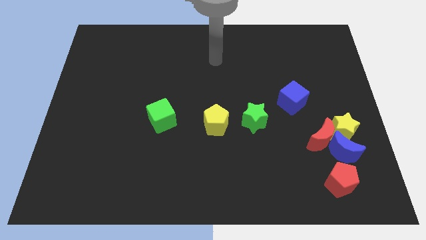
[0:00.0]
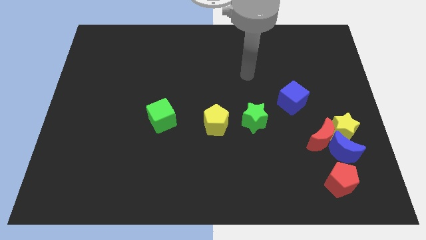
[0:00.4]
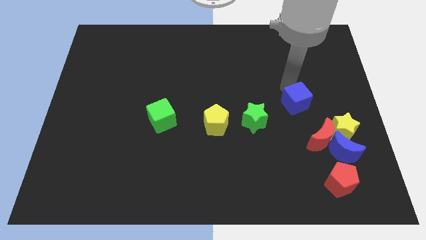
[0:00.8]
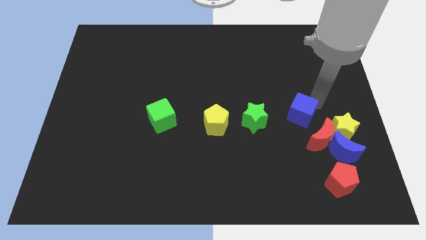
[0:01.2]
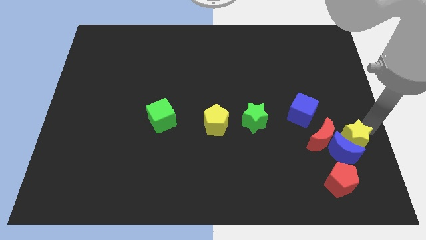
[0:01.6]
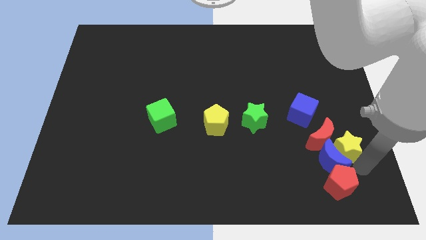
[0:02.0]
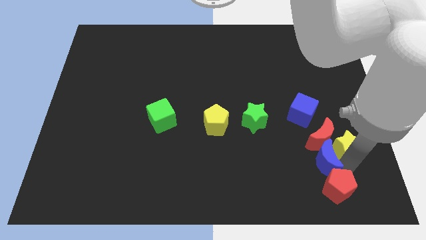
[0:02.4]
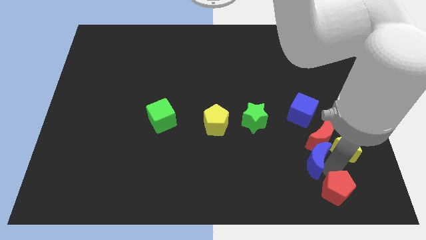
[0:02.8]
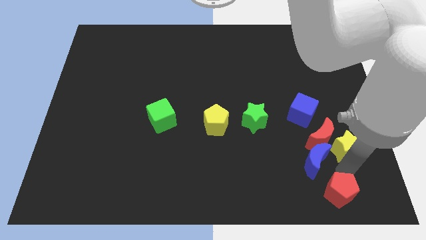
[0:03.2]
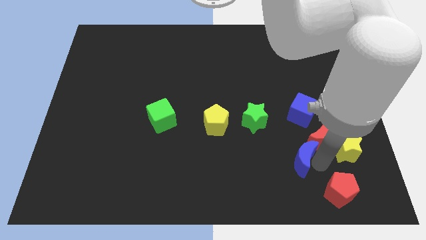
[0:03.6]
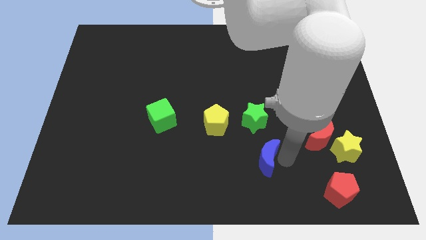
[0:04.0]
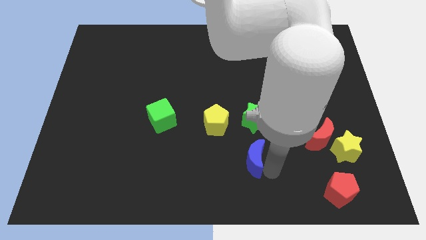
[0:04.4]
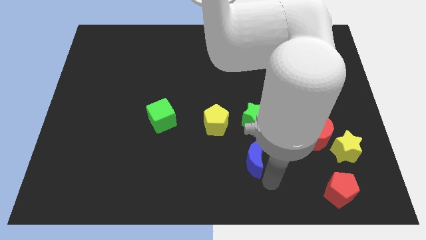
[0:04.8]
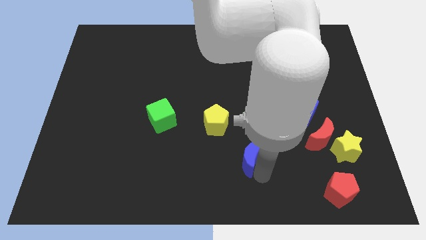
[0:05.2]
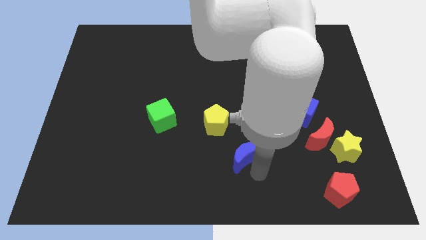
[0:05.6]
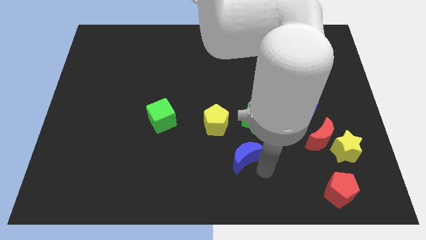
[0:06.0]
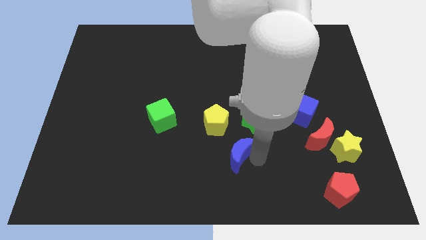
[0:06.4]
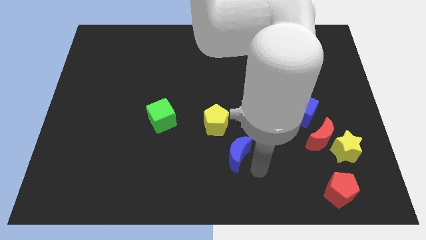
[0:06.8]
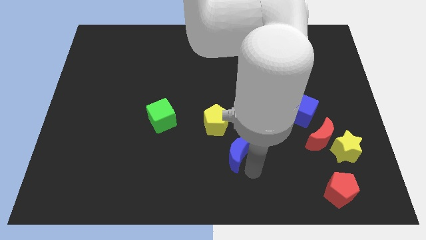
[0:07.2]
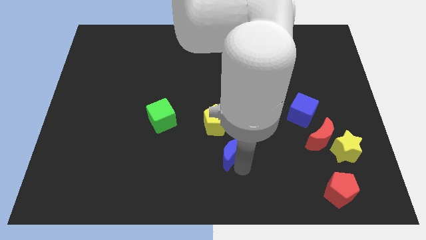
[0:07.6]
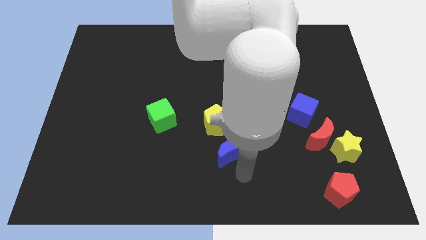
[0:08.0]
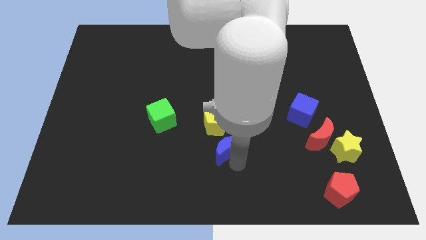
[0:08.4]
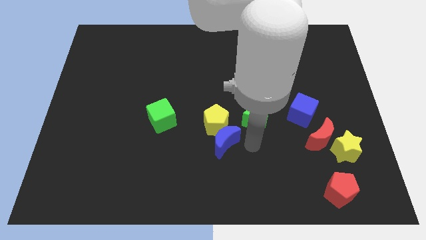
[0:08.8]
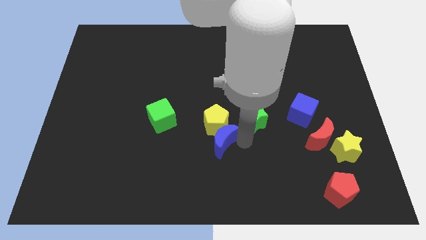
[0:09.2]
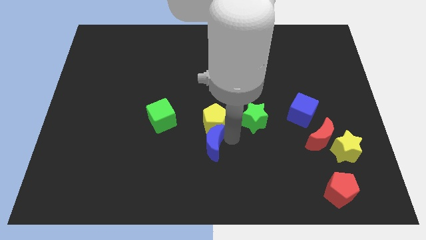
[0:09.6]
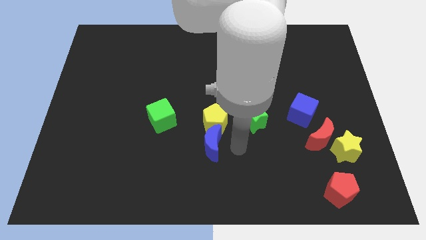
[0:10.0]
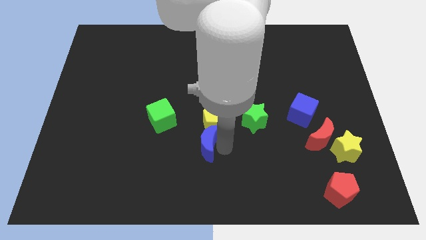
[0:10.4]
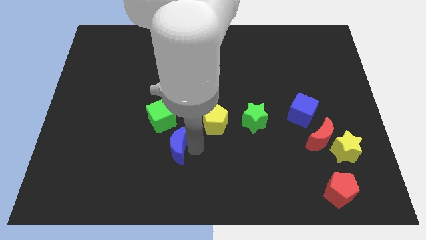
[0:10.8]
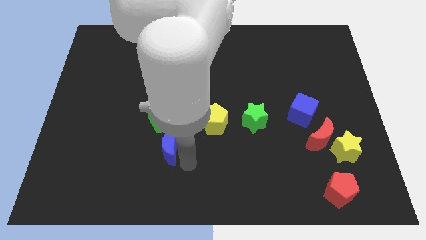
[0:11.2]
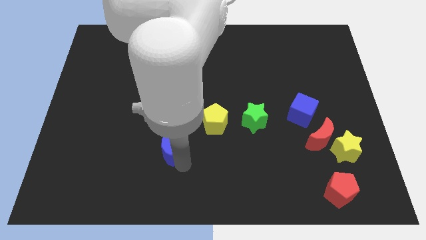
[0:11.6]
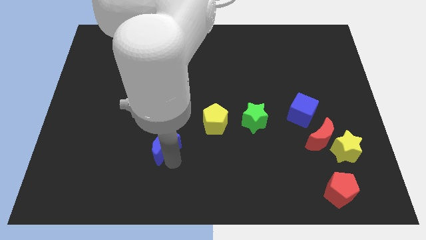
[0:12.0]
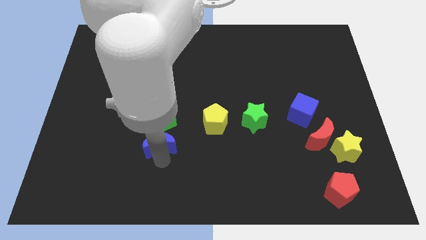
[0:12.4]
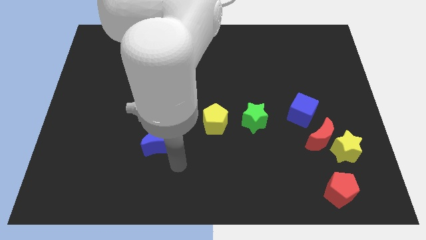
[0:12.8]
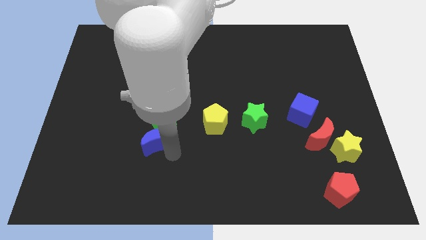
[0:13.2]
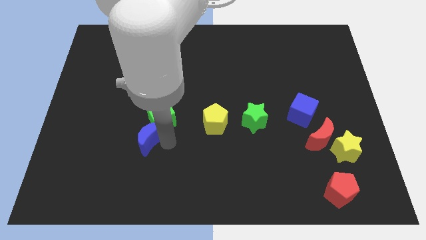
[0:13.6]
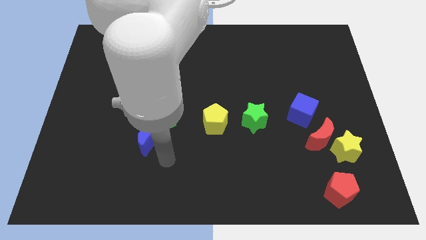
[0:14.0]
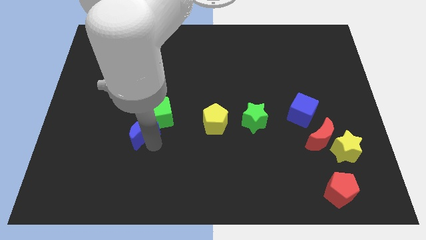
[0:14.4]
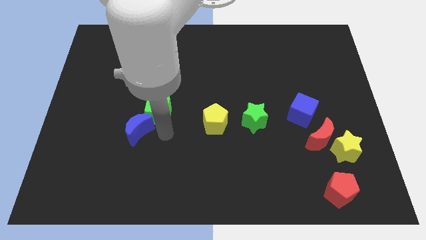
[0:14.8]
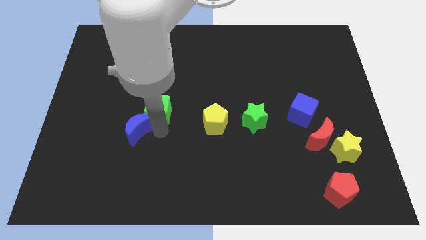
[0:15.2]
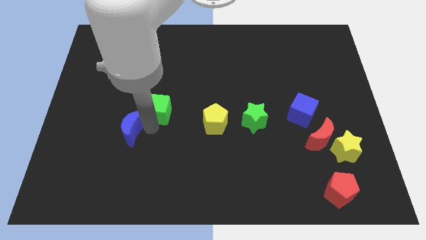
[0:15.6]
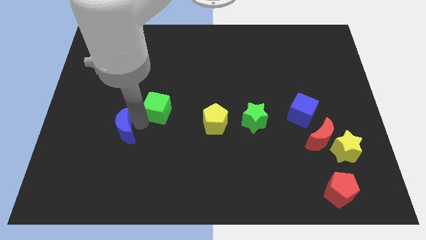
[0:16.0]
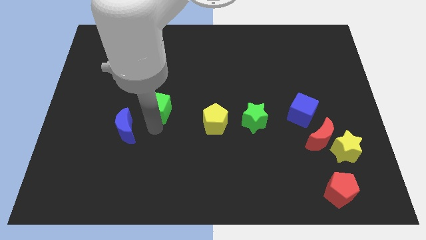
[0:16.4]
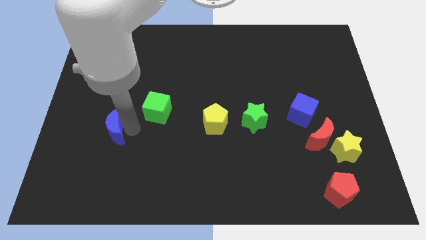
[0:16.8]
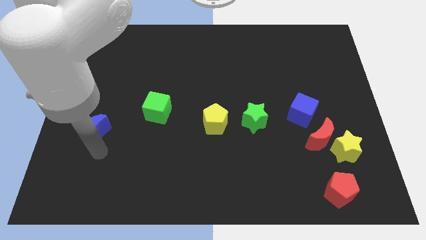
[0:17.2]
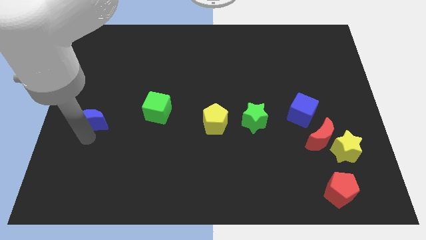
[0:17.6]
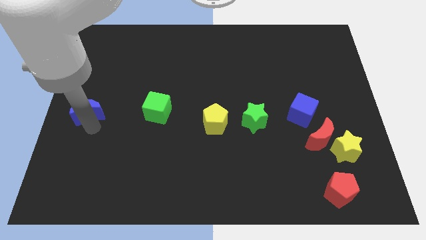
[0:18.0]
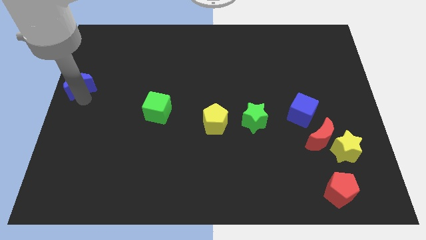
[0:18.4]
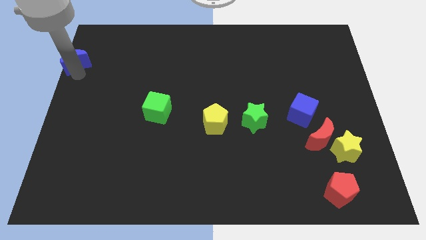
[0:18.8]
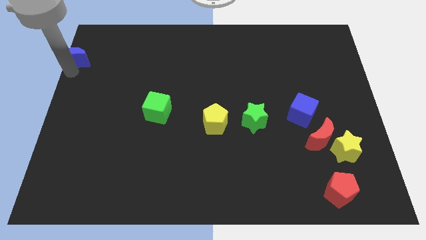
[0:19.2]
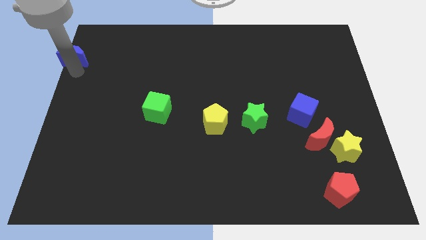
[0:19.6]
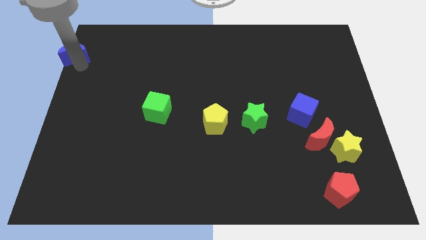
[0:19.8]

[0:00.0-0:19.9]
slide the blue moon to the top left corner

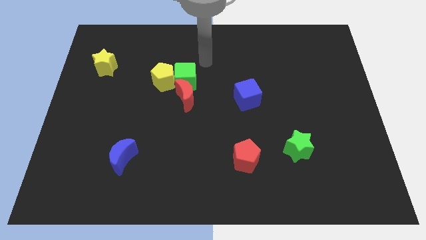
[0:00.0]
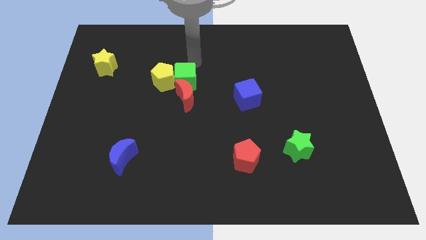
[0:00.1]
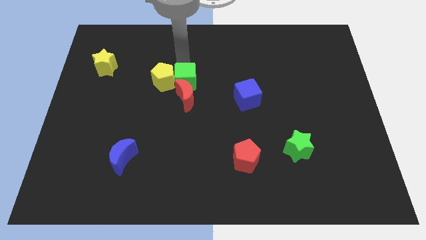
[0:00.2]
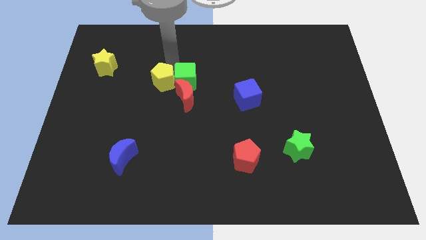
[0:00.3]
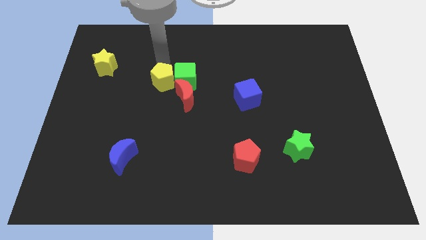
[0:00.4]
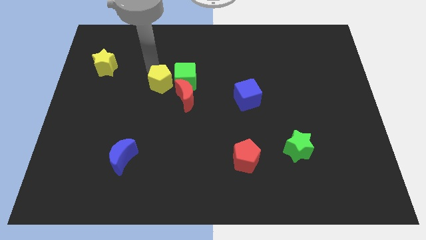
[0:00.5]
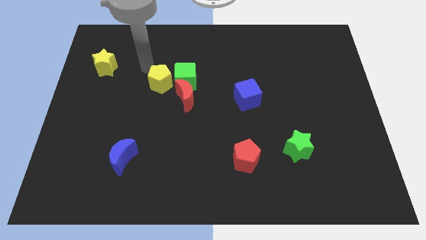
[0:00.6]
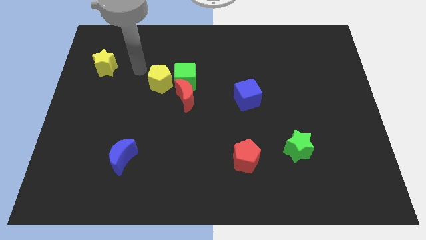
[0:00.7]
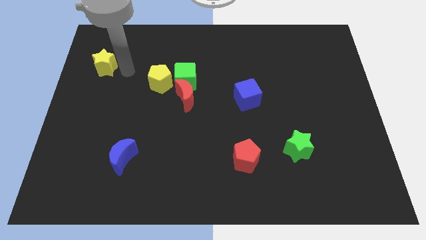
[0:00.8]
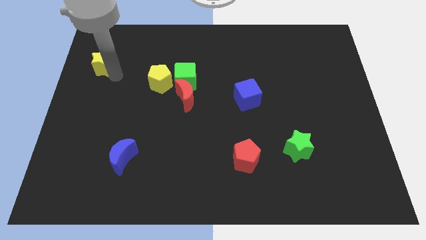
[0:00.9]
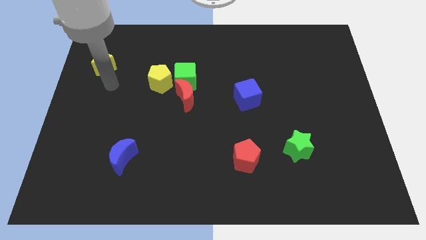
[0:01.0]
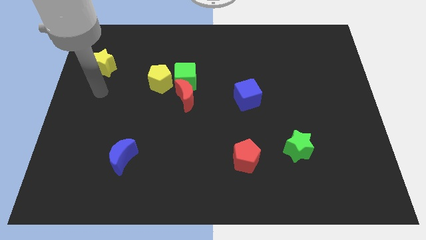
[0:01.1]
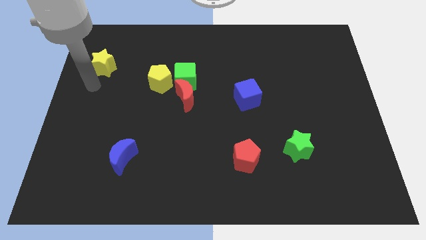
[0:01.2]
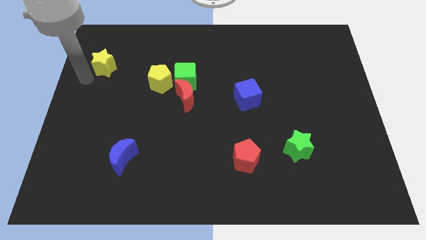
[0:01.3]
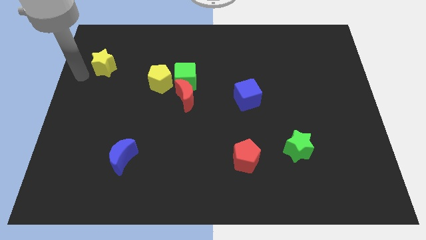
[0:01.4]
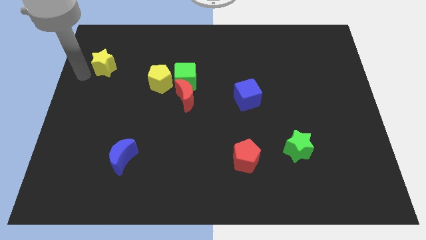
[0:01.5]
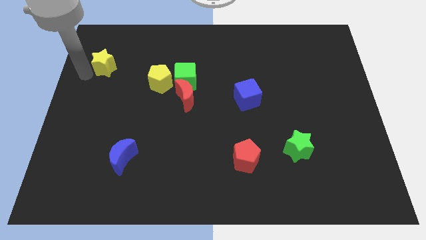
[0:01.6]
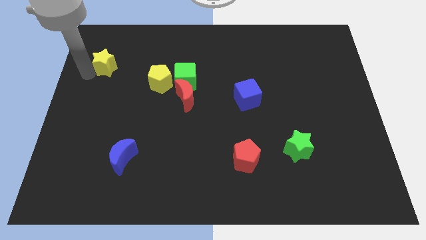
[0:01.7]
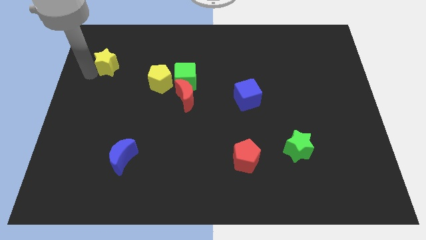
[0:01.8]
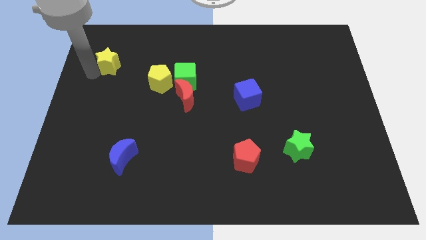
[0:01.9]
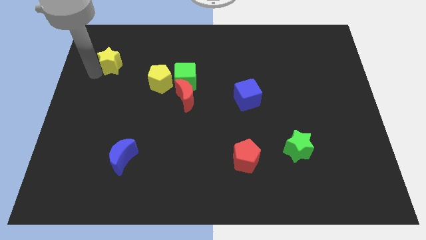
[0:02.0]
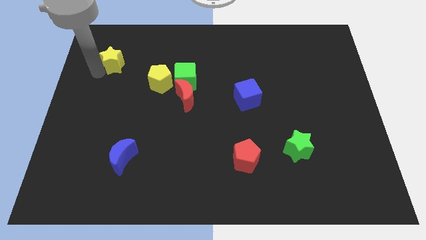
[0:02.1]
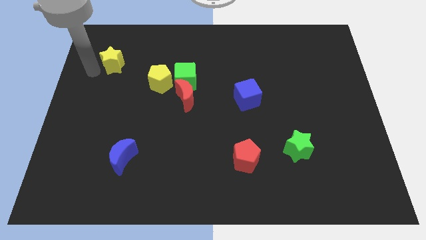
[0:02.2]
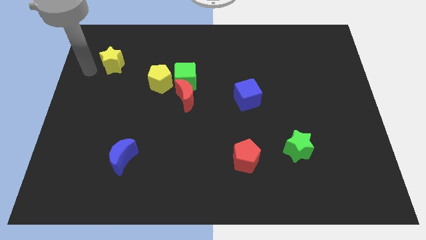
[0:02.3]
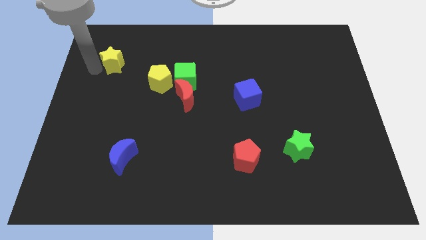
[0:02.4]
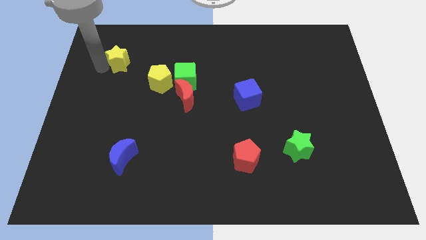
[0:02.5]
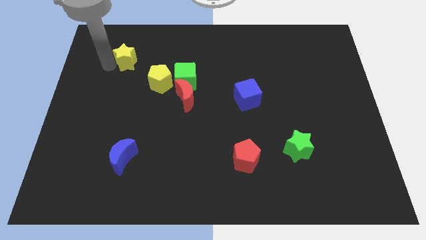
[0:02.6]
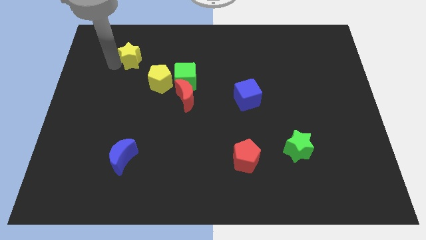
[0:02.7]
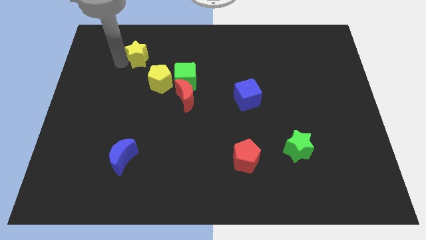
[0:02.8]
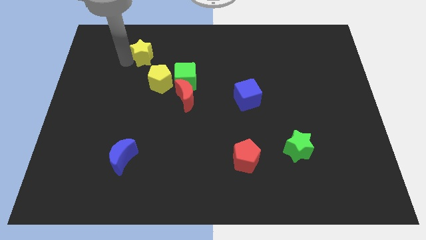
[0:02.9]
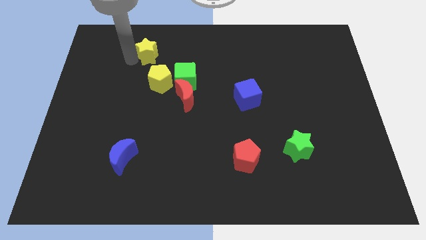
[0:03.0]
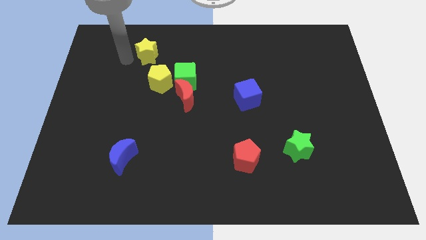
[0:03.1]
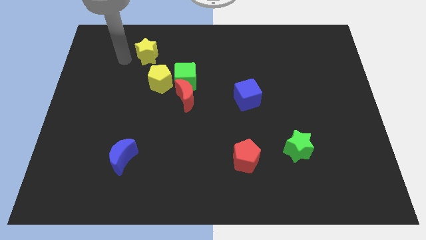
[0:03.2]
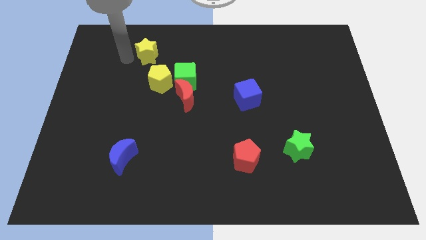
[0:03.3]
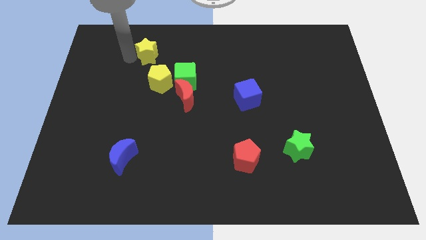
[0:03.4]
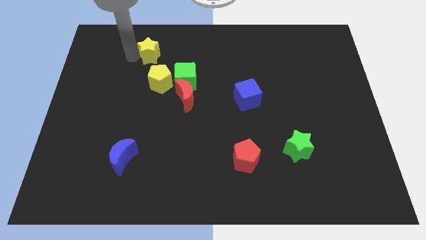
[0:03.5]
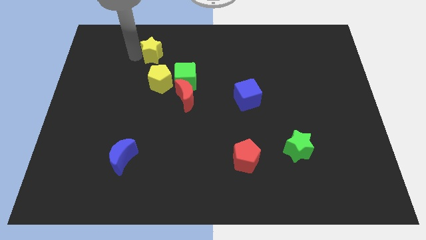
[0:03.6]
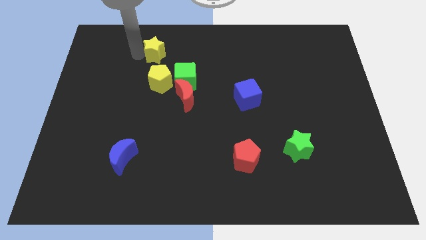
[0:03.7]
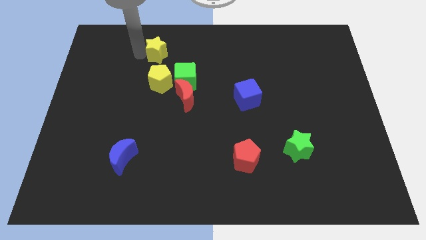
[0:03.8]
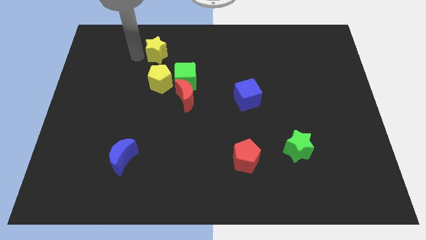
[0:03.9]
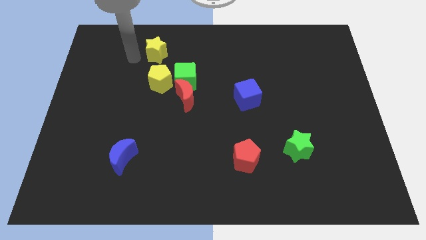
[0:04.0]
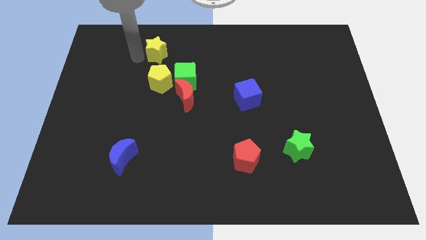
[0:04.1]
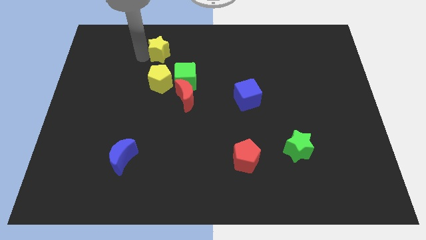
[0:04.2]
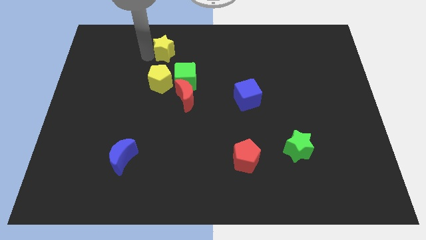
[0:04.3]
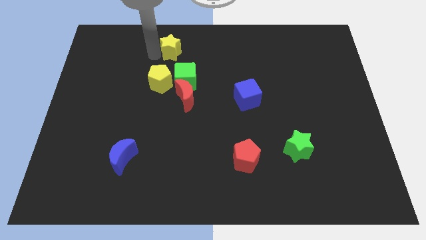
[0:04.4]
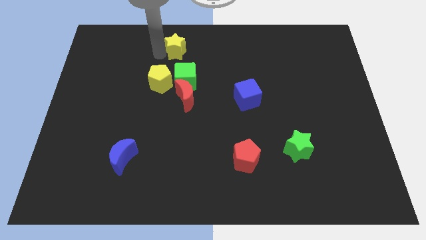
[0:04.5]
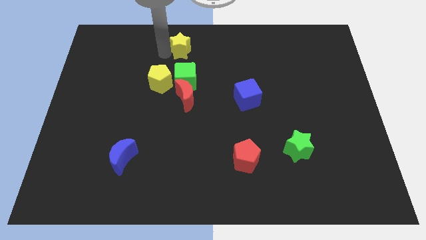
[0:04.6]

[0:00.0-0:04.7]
move the yellow star to the top
